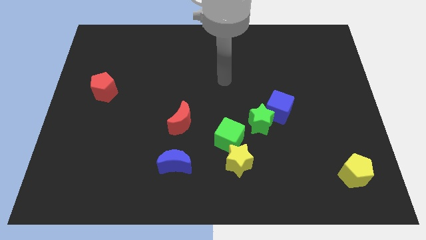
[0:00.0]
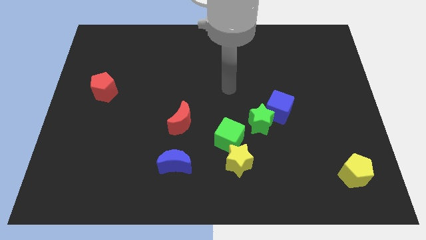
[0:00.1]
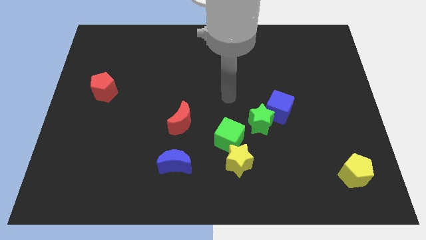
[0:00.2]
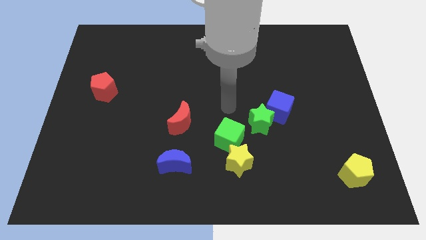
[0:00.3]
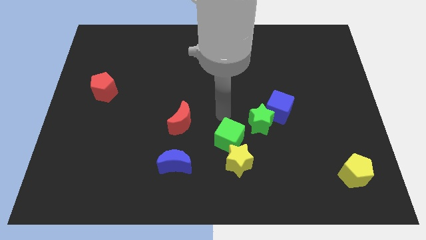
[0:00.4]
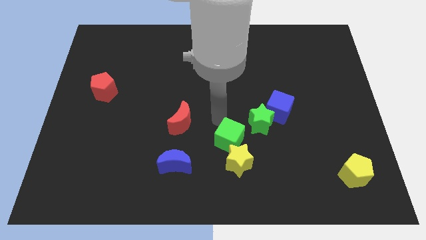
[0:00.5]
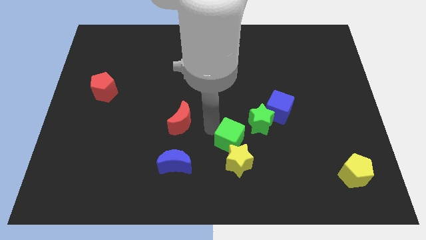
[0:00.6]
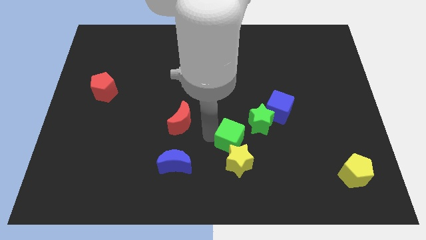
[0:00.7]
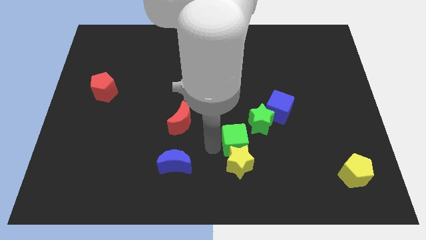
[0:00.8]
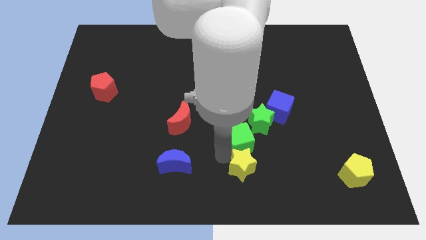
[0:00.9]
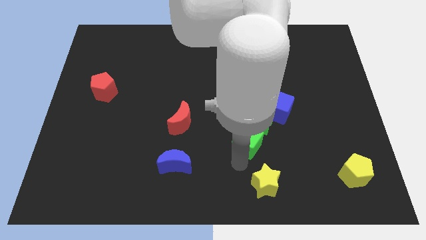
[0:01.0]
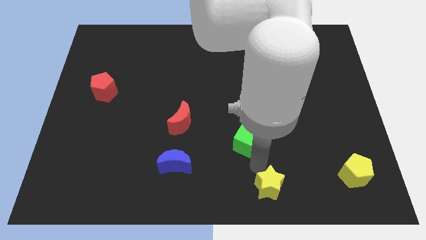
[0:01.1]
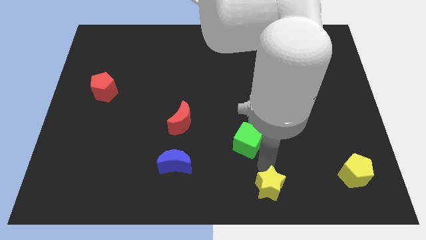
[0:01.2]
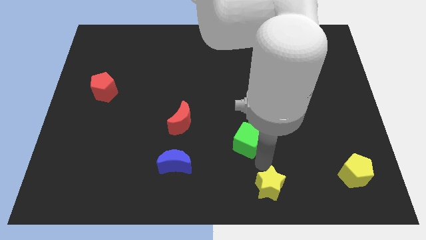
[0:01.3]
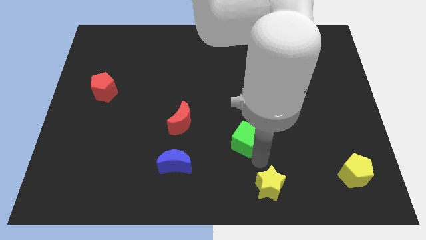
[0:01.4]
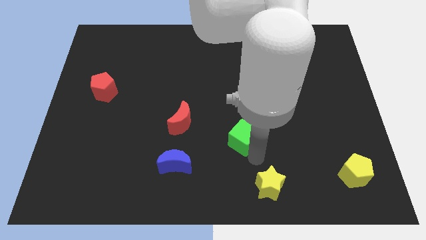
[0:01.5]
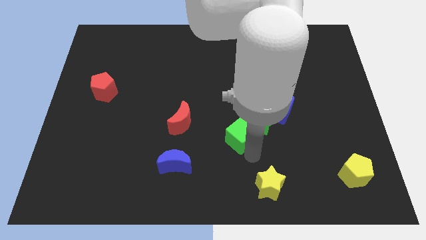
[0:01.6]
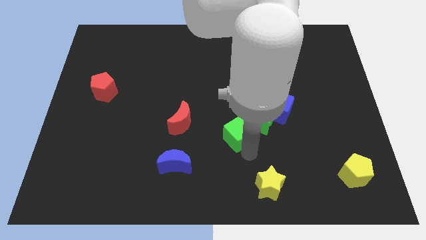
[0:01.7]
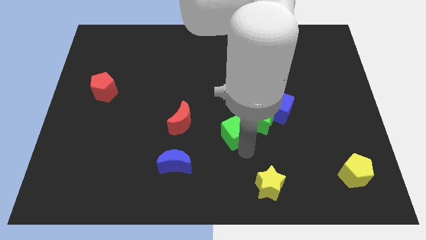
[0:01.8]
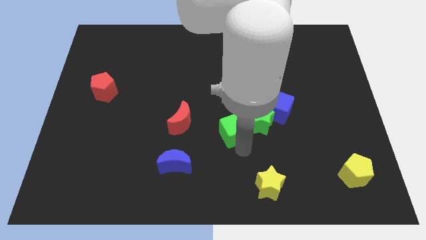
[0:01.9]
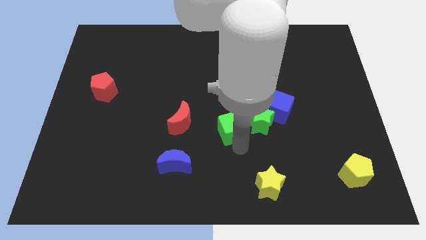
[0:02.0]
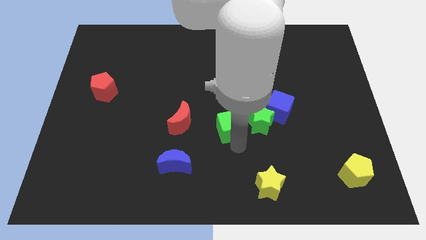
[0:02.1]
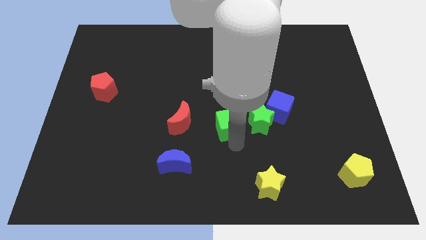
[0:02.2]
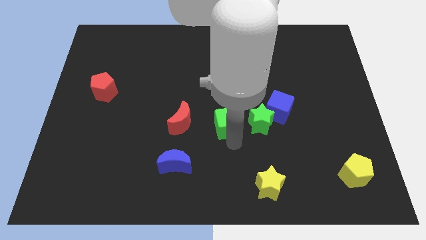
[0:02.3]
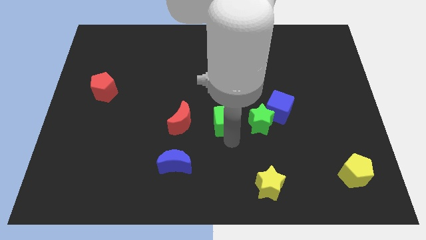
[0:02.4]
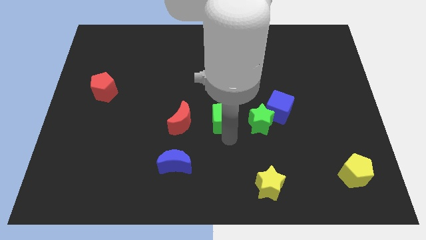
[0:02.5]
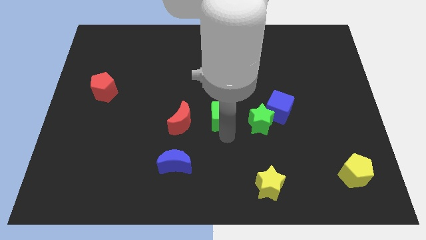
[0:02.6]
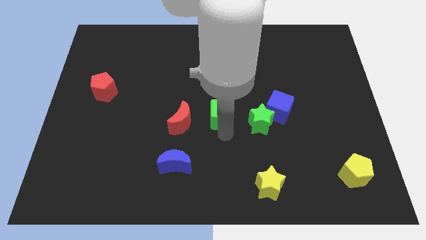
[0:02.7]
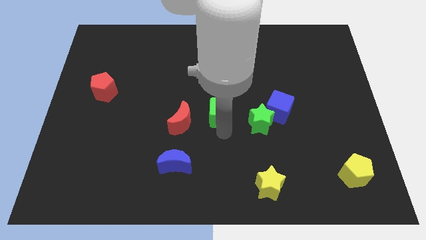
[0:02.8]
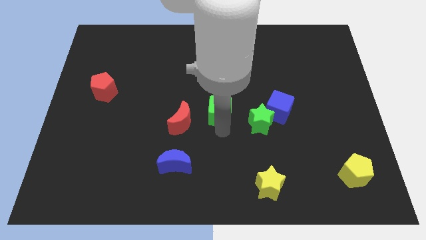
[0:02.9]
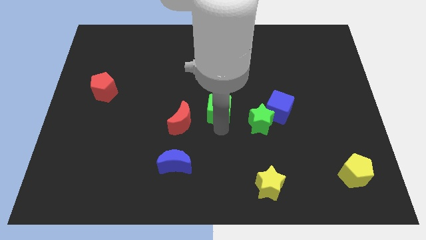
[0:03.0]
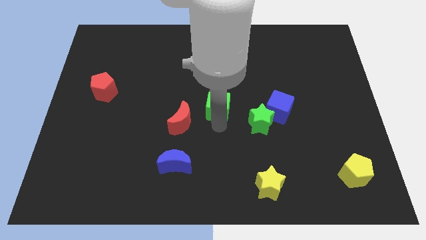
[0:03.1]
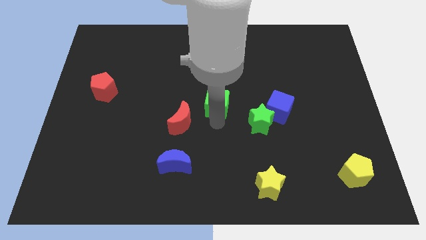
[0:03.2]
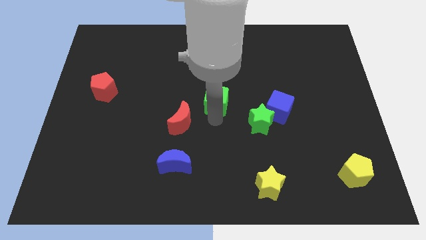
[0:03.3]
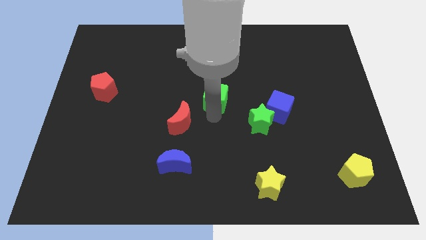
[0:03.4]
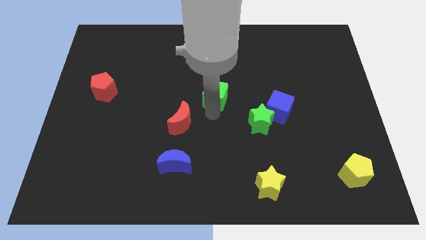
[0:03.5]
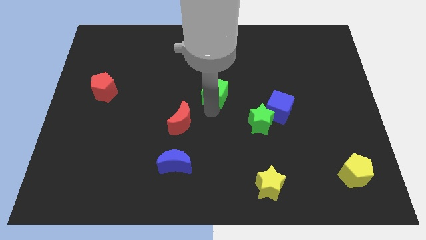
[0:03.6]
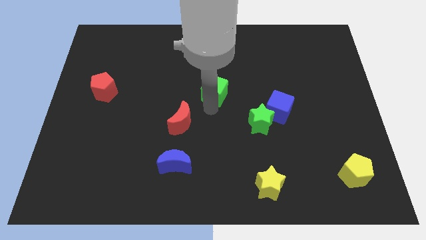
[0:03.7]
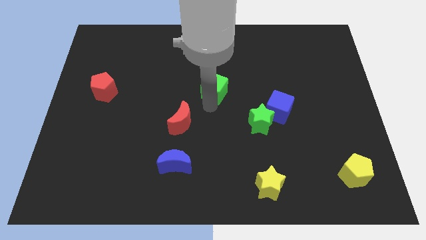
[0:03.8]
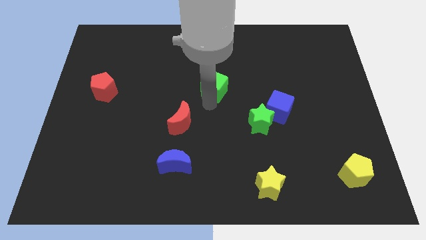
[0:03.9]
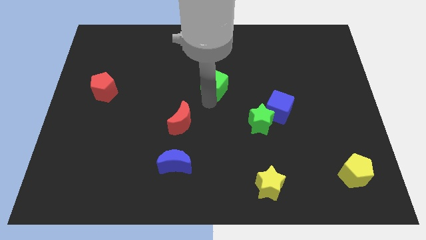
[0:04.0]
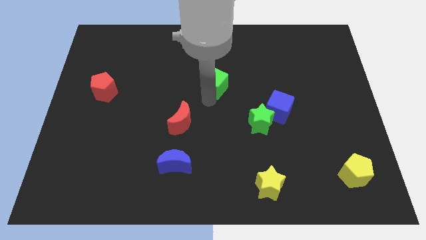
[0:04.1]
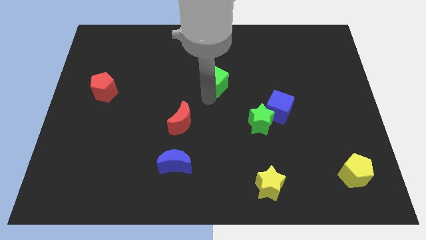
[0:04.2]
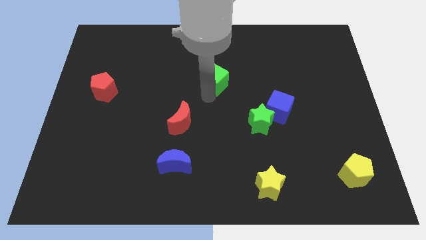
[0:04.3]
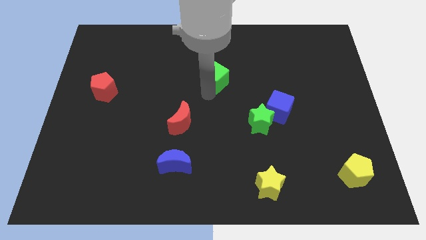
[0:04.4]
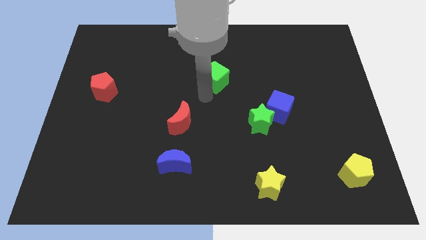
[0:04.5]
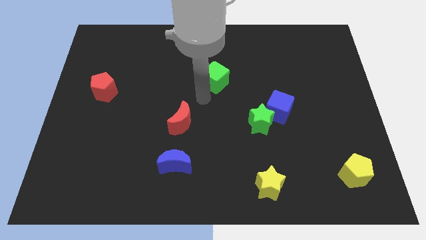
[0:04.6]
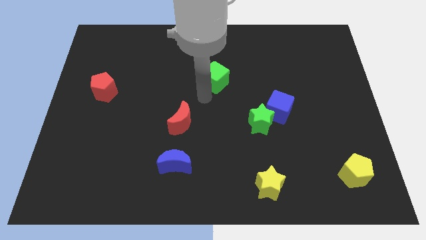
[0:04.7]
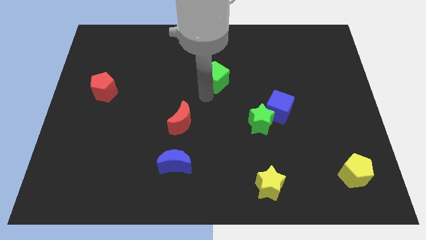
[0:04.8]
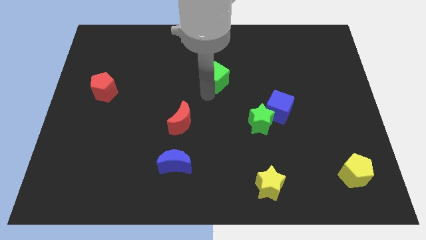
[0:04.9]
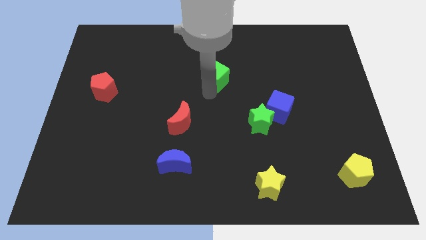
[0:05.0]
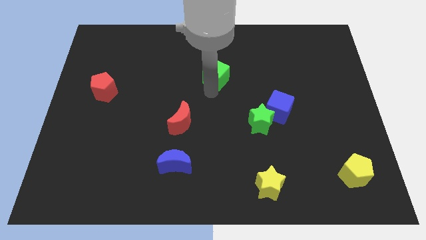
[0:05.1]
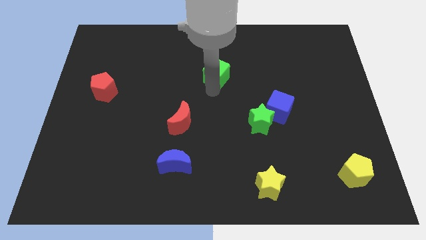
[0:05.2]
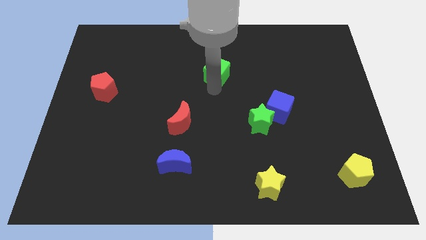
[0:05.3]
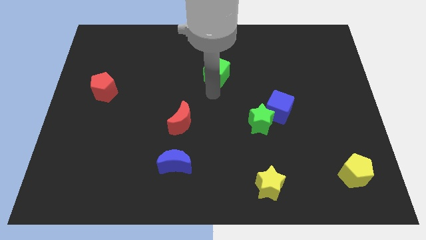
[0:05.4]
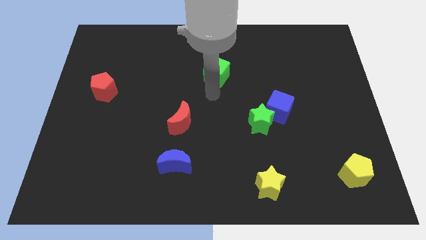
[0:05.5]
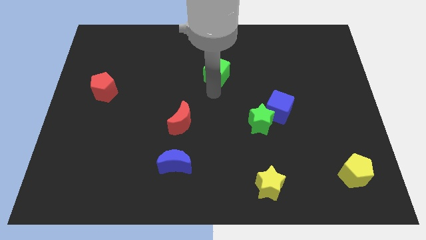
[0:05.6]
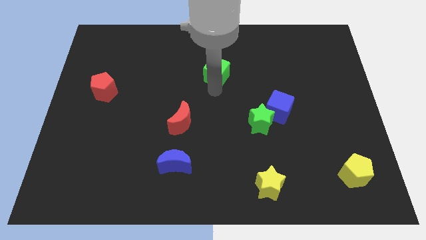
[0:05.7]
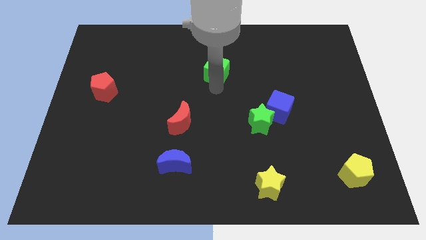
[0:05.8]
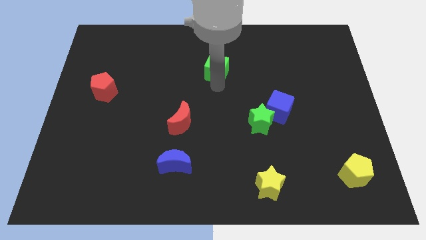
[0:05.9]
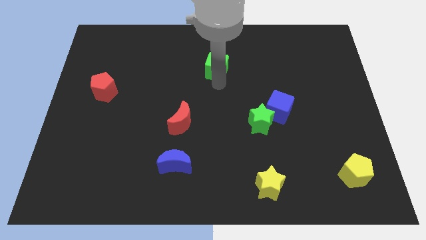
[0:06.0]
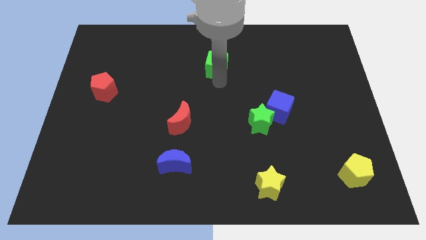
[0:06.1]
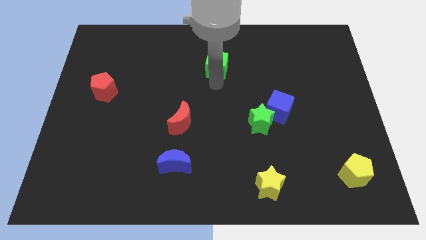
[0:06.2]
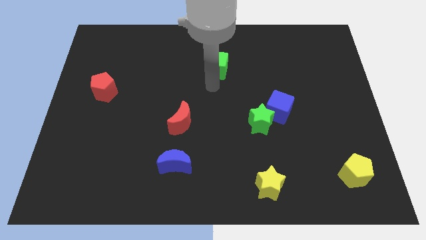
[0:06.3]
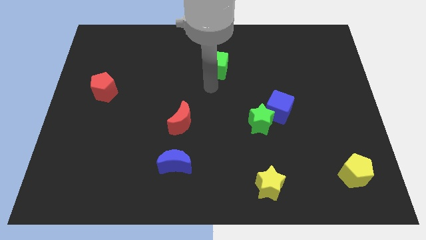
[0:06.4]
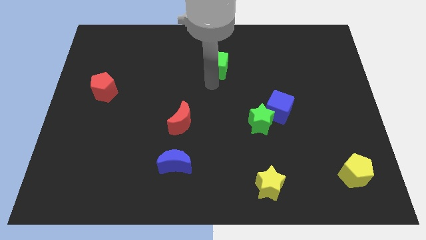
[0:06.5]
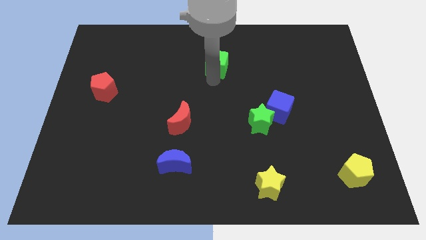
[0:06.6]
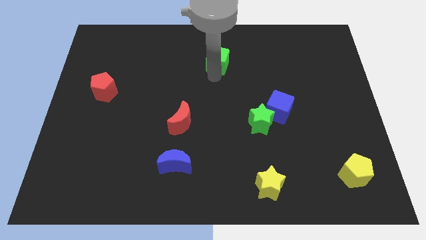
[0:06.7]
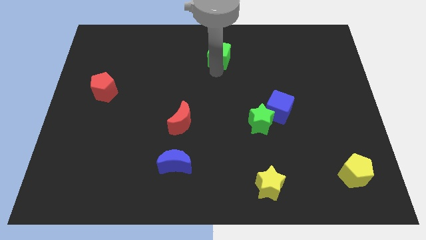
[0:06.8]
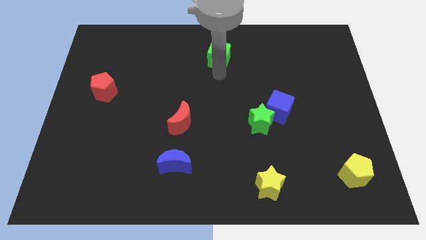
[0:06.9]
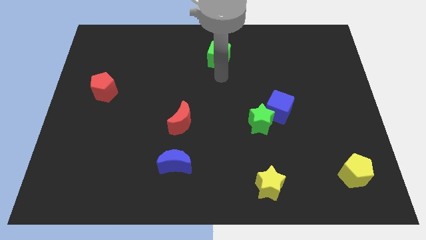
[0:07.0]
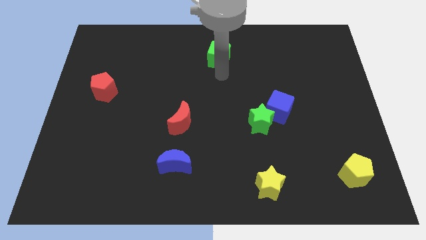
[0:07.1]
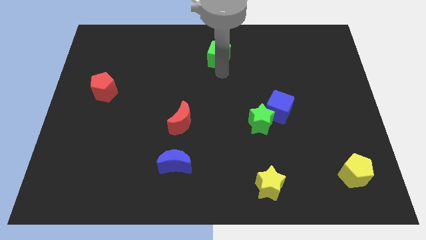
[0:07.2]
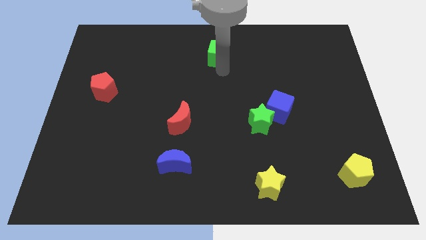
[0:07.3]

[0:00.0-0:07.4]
push the green cube to the top side

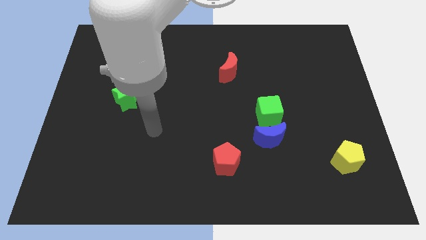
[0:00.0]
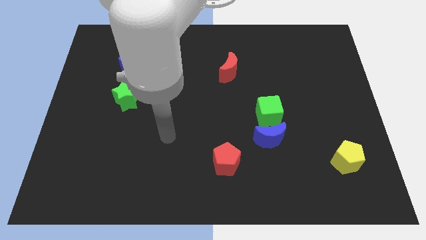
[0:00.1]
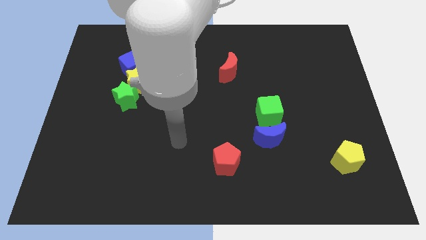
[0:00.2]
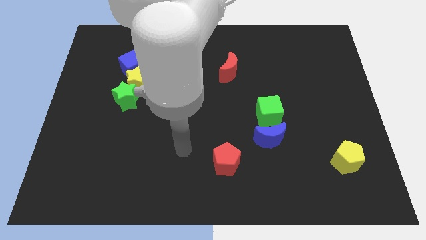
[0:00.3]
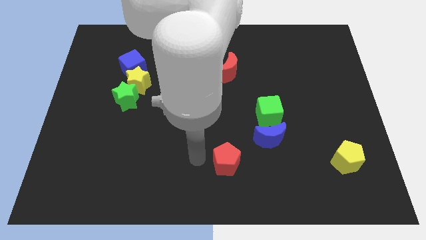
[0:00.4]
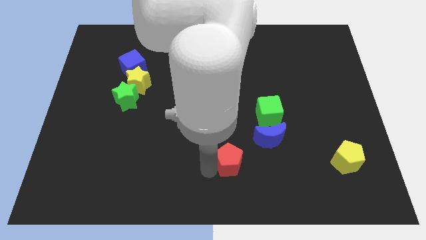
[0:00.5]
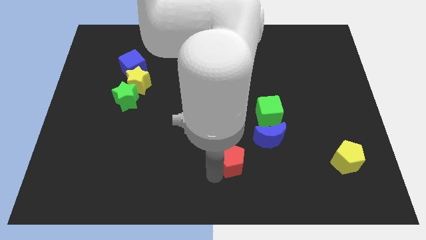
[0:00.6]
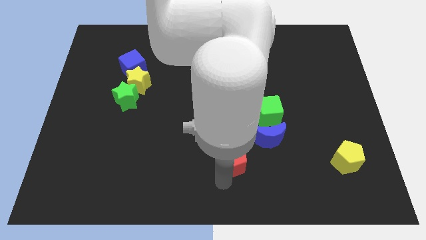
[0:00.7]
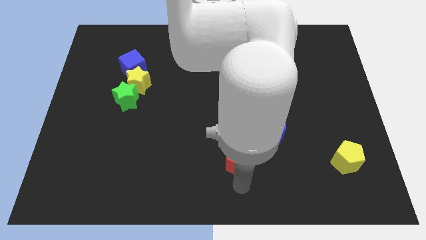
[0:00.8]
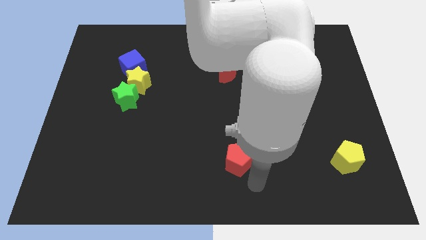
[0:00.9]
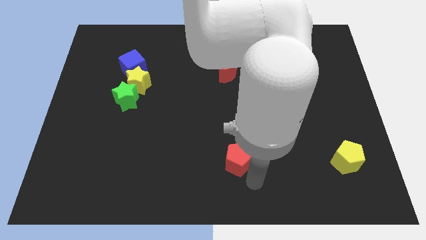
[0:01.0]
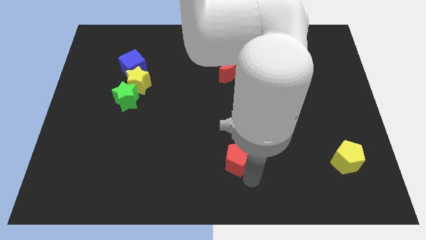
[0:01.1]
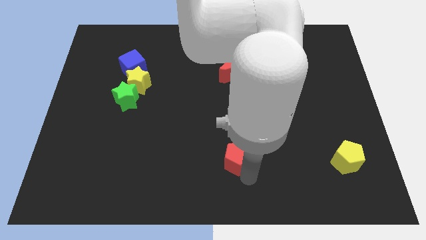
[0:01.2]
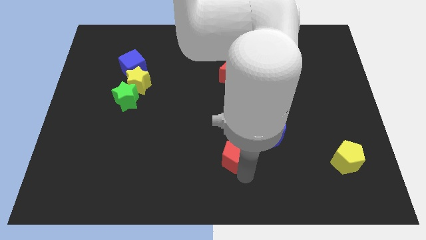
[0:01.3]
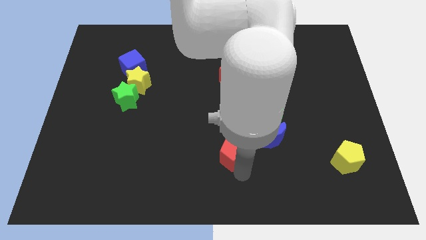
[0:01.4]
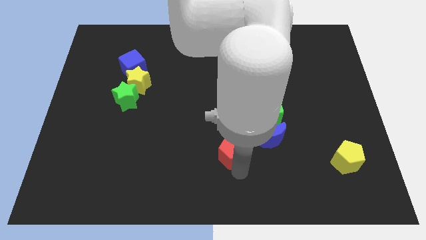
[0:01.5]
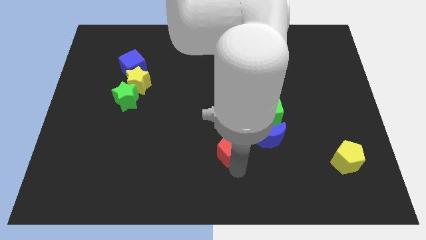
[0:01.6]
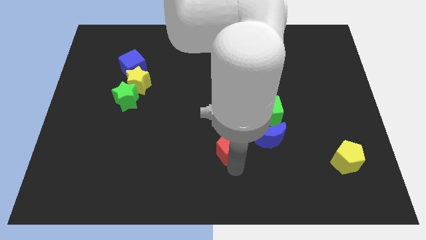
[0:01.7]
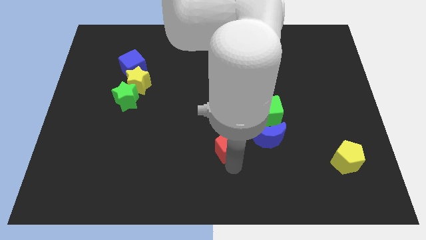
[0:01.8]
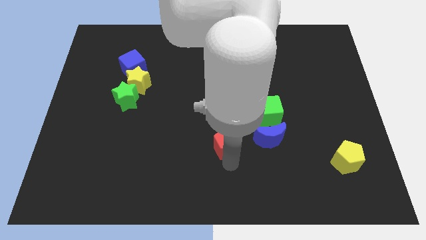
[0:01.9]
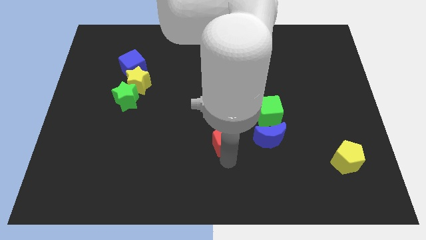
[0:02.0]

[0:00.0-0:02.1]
push the red pentagon to the center
